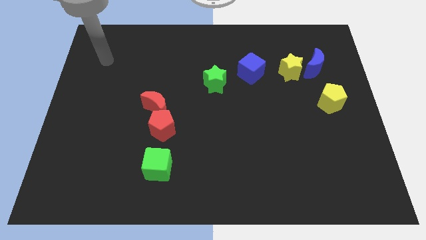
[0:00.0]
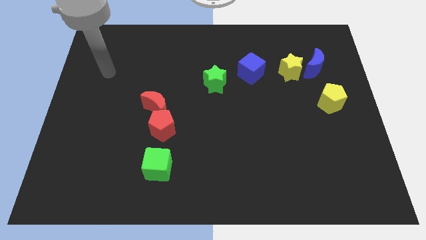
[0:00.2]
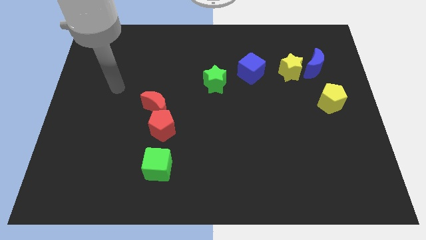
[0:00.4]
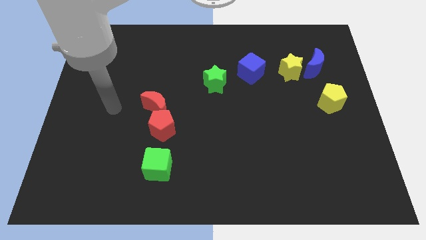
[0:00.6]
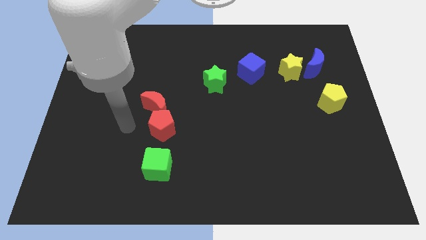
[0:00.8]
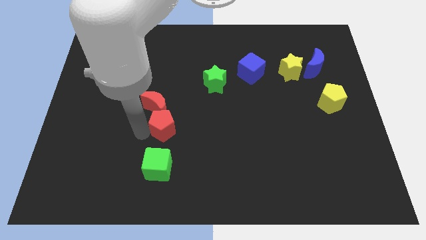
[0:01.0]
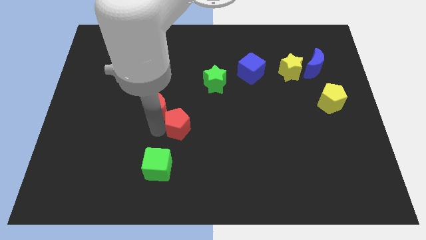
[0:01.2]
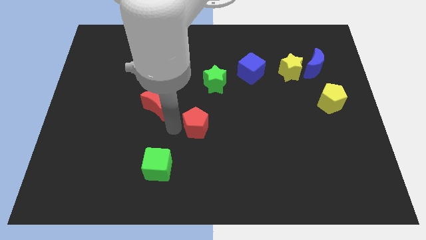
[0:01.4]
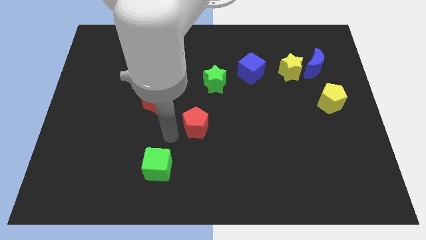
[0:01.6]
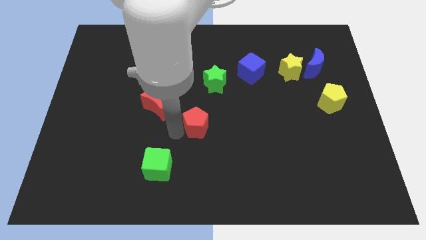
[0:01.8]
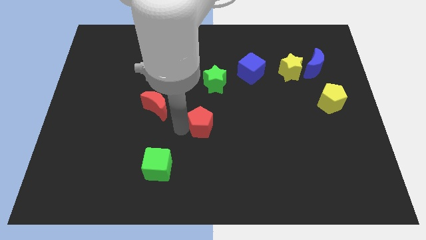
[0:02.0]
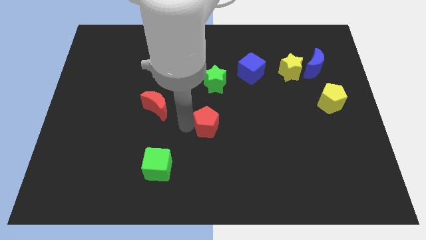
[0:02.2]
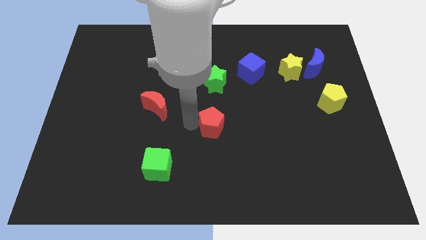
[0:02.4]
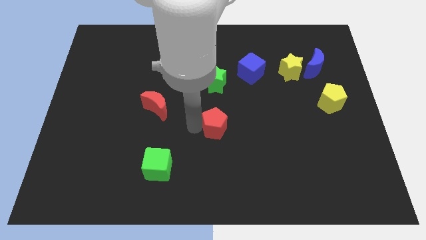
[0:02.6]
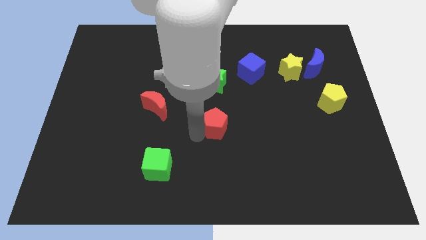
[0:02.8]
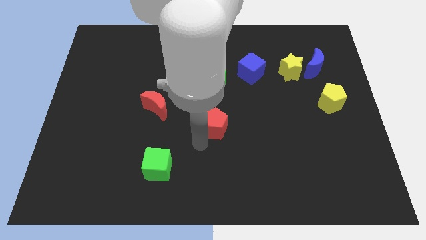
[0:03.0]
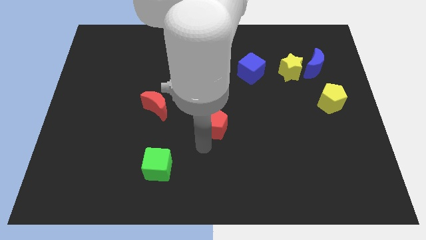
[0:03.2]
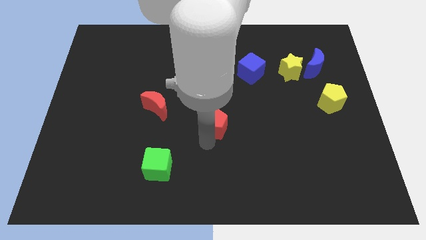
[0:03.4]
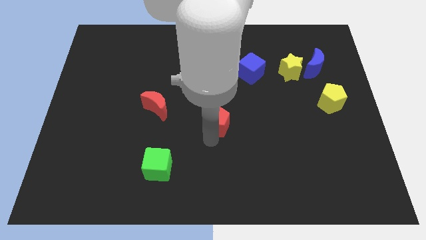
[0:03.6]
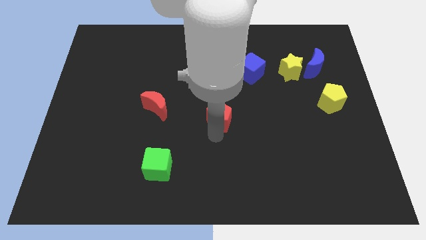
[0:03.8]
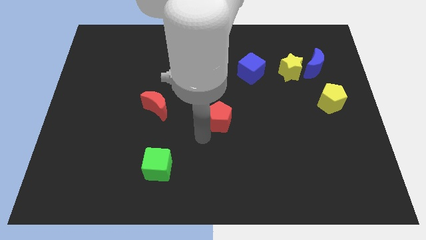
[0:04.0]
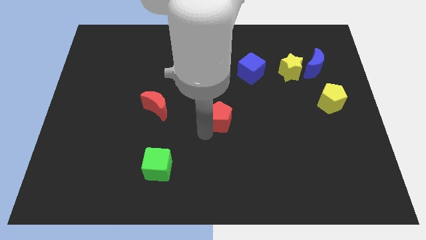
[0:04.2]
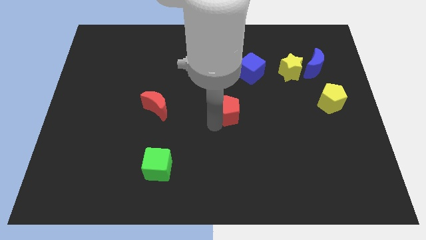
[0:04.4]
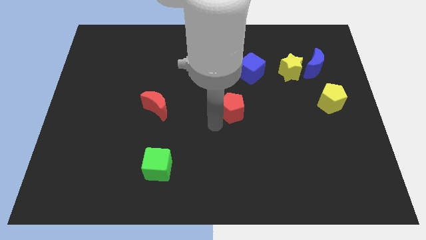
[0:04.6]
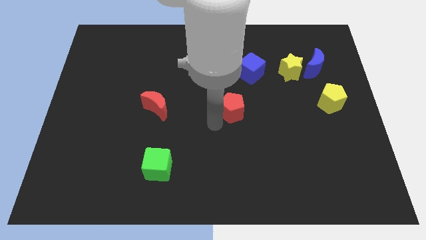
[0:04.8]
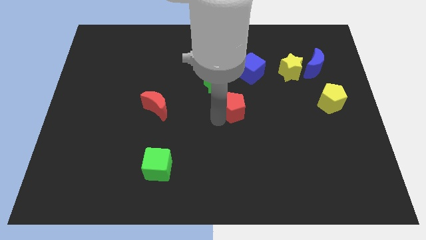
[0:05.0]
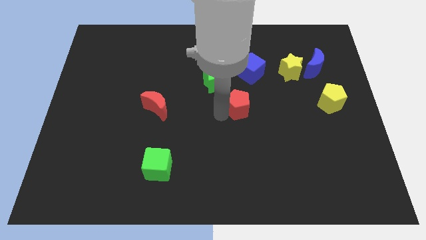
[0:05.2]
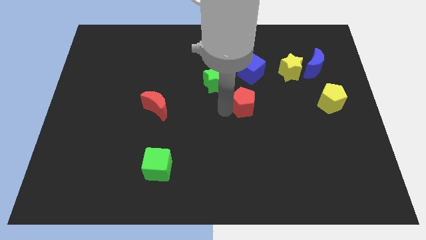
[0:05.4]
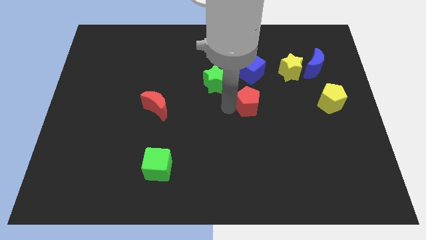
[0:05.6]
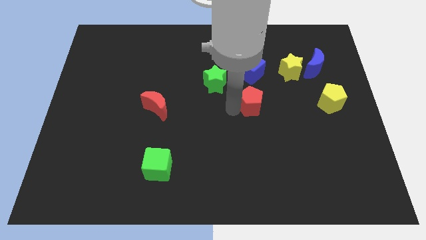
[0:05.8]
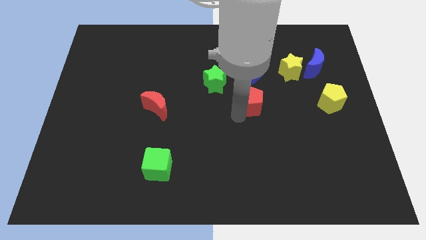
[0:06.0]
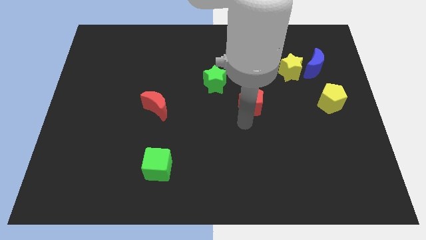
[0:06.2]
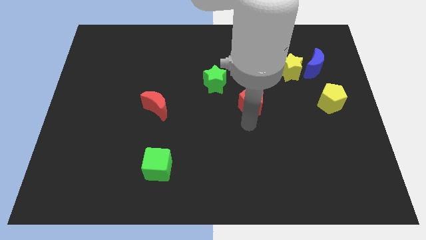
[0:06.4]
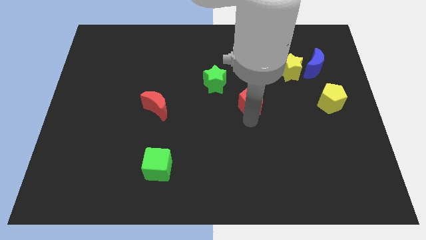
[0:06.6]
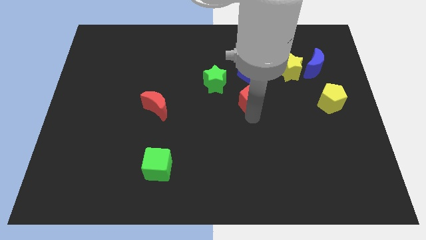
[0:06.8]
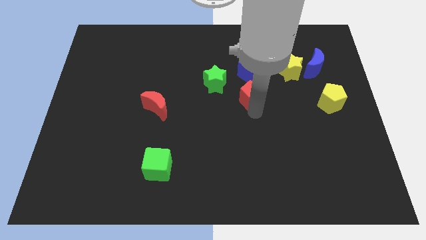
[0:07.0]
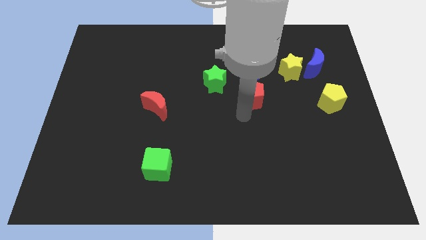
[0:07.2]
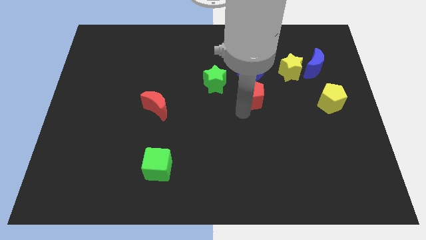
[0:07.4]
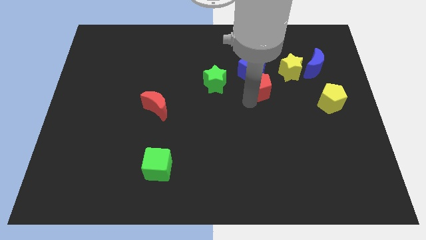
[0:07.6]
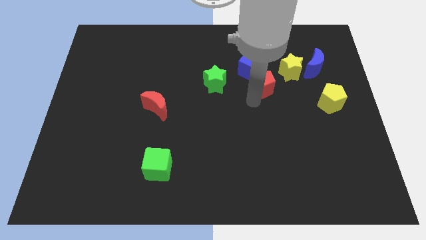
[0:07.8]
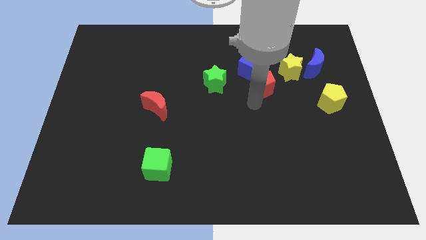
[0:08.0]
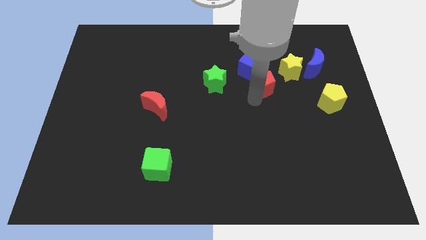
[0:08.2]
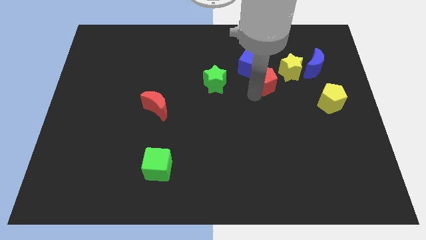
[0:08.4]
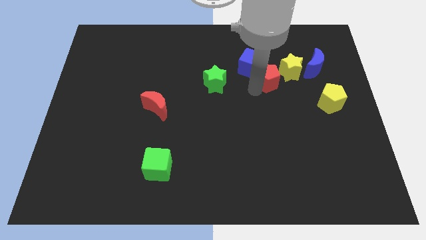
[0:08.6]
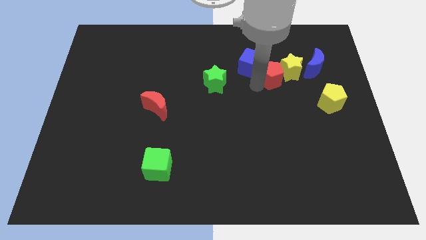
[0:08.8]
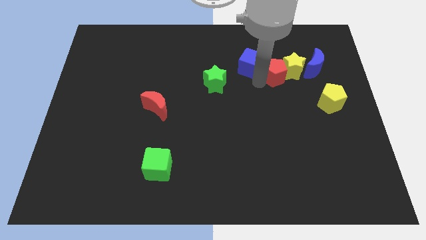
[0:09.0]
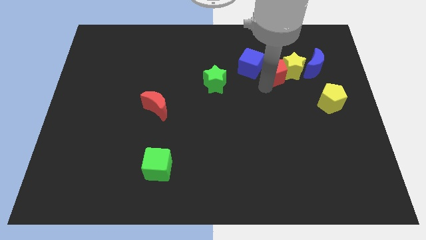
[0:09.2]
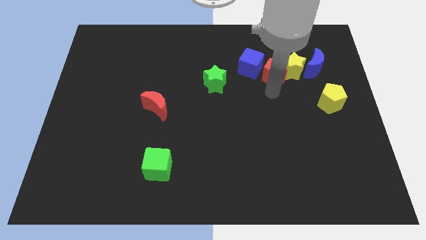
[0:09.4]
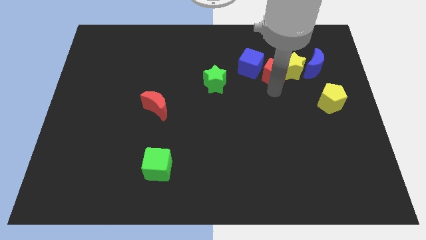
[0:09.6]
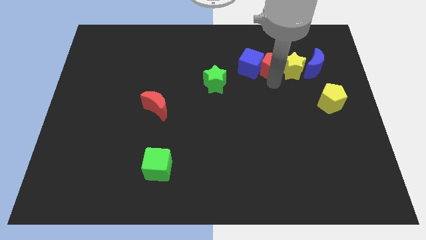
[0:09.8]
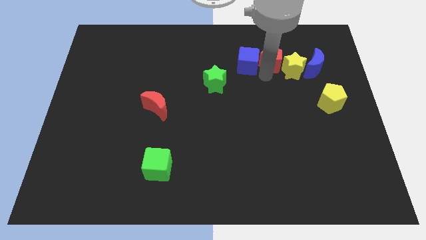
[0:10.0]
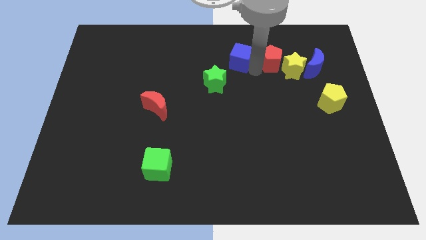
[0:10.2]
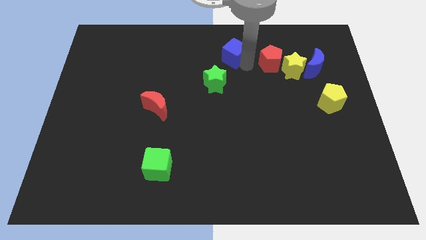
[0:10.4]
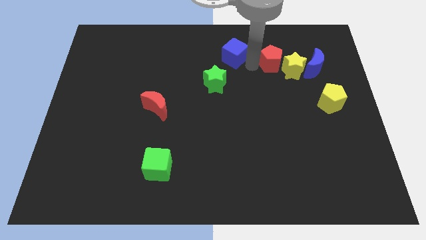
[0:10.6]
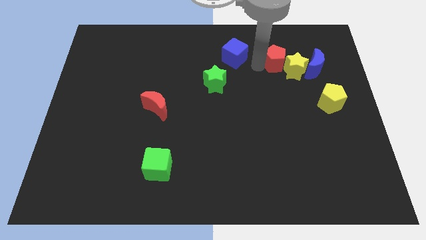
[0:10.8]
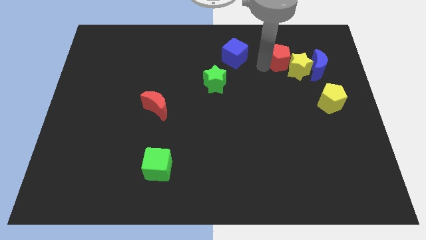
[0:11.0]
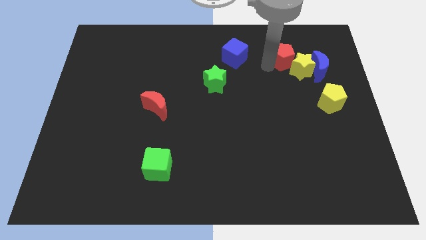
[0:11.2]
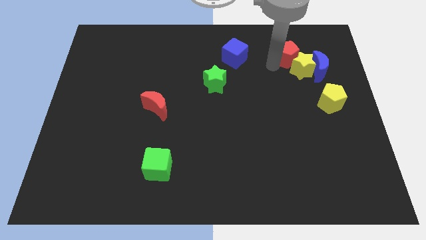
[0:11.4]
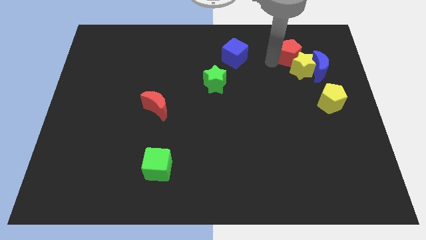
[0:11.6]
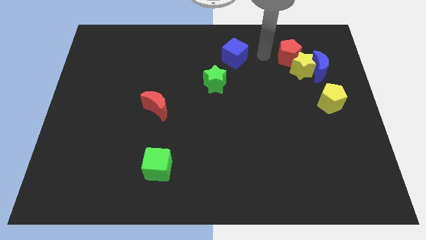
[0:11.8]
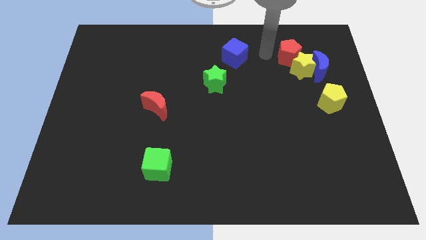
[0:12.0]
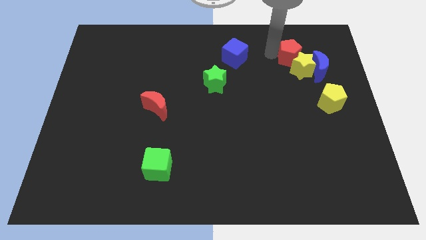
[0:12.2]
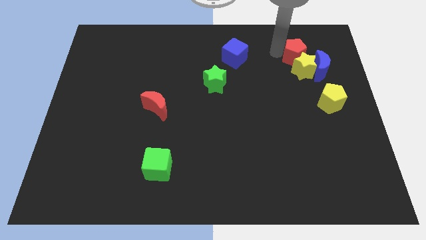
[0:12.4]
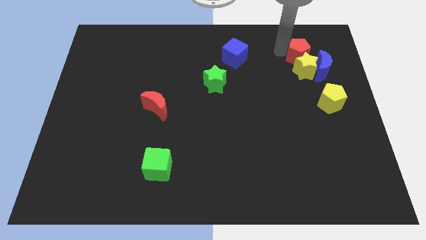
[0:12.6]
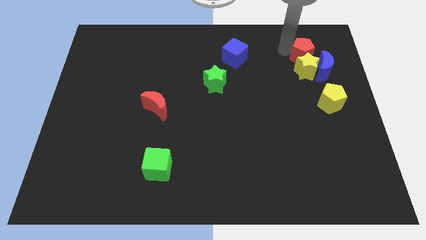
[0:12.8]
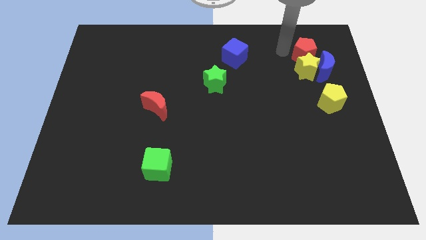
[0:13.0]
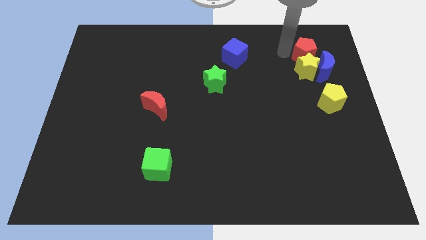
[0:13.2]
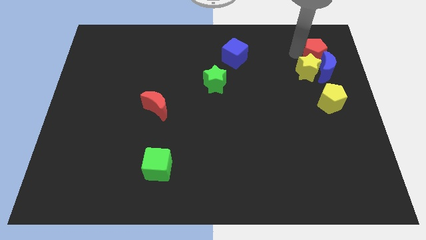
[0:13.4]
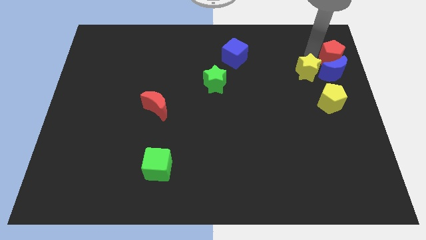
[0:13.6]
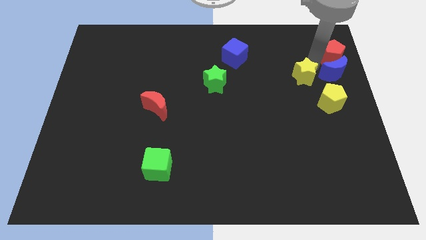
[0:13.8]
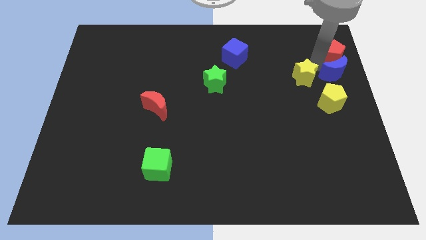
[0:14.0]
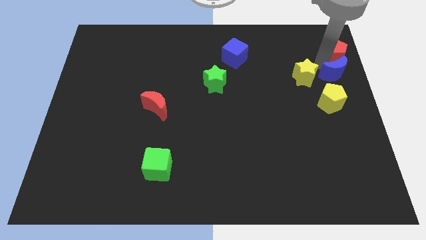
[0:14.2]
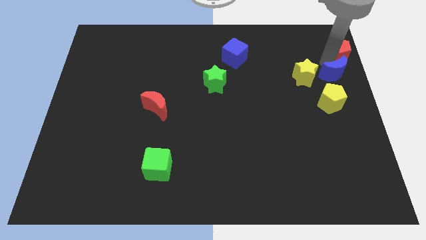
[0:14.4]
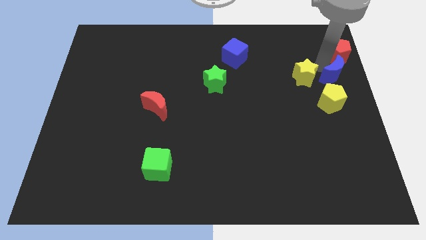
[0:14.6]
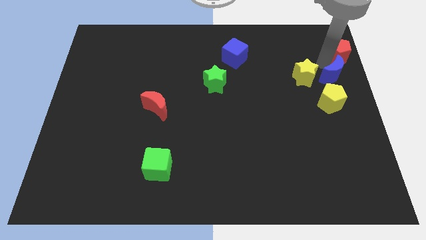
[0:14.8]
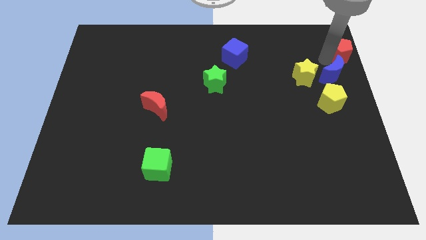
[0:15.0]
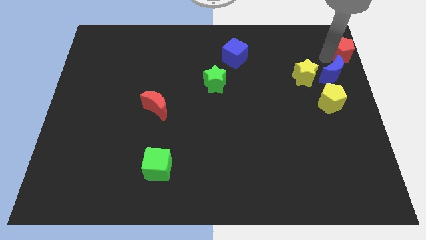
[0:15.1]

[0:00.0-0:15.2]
move the red pentagon to the top right corner

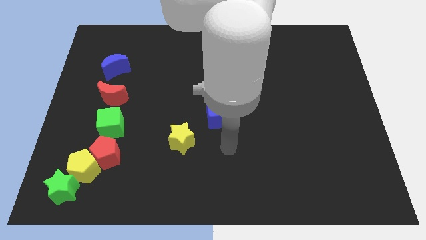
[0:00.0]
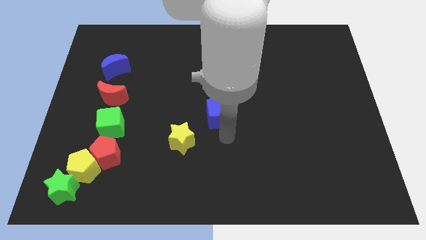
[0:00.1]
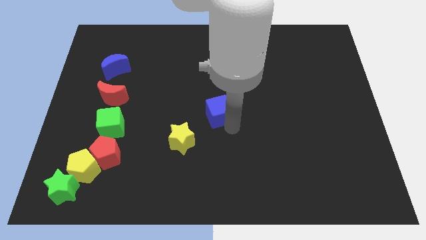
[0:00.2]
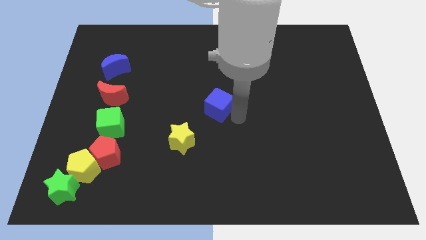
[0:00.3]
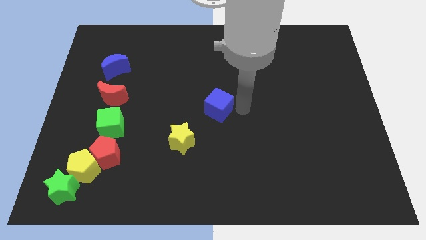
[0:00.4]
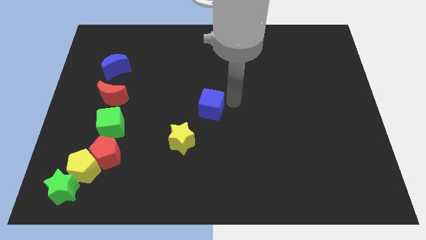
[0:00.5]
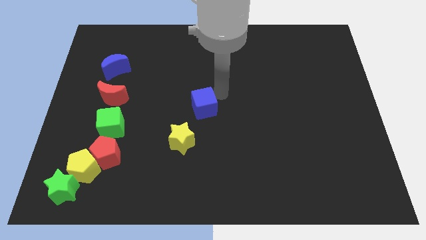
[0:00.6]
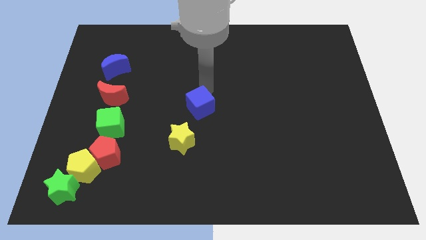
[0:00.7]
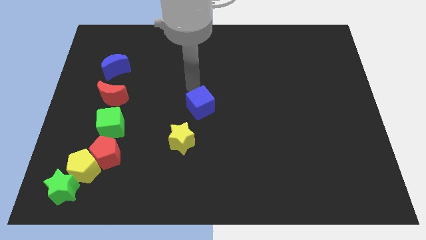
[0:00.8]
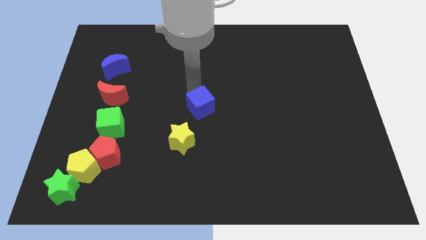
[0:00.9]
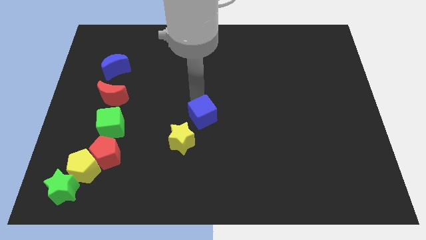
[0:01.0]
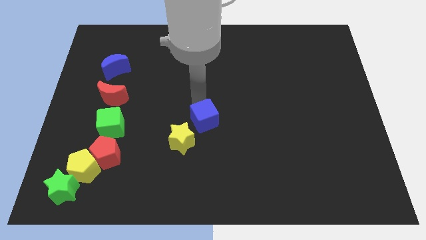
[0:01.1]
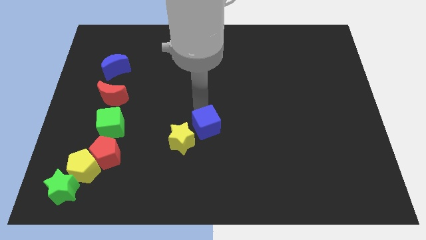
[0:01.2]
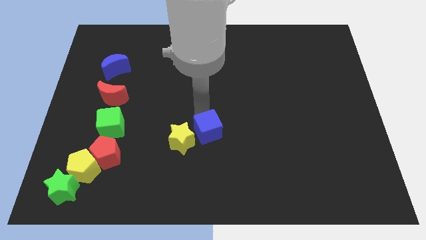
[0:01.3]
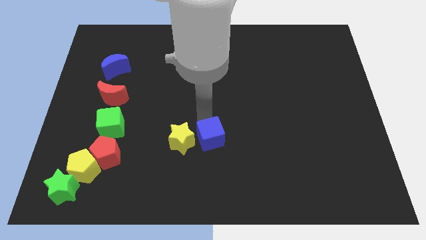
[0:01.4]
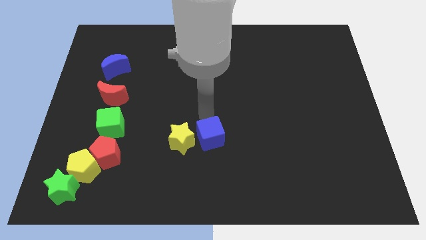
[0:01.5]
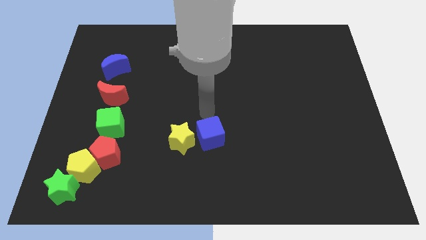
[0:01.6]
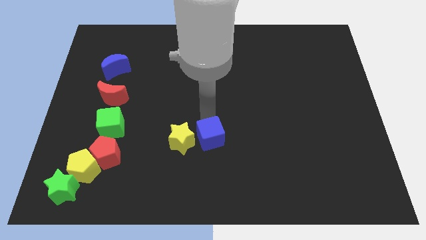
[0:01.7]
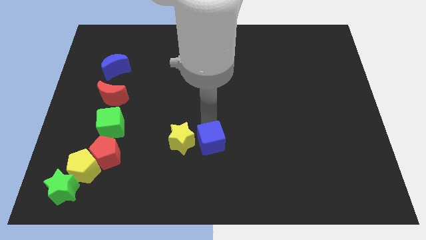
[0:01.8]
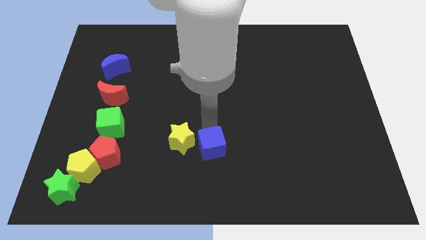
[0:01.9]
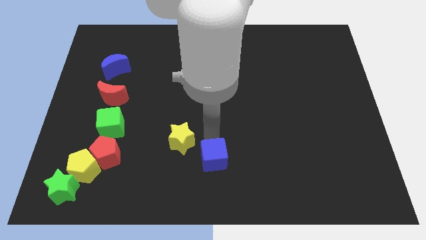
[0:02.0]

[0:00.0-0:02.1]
push the blue cube to the bottom
